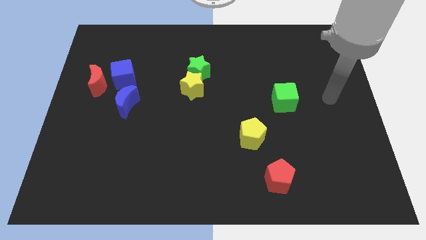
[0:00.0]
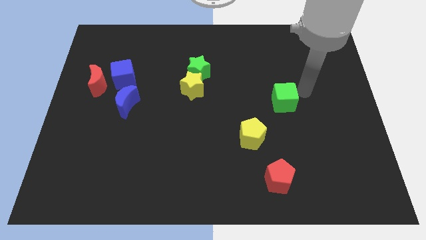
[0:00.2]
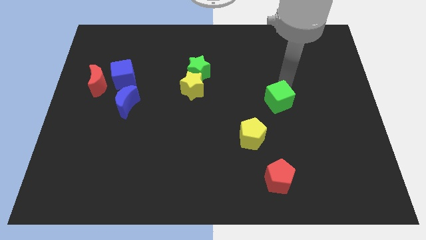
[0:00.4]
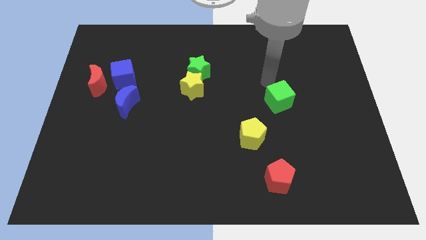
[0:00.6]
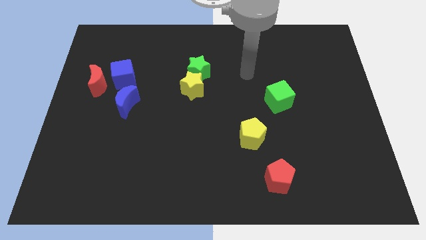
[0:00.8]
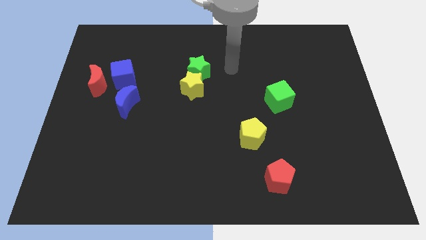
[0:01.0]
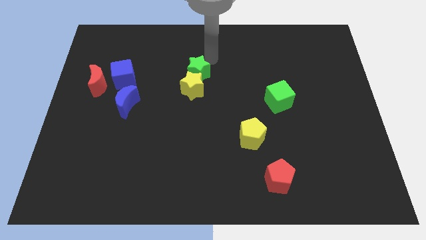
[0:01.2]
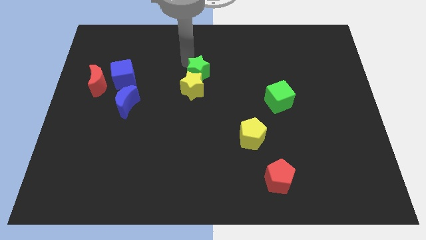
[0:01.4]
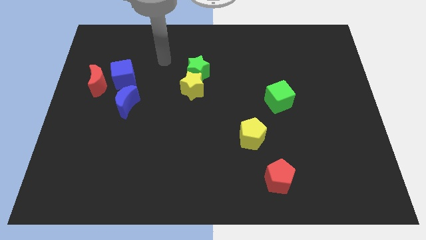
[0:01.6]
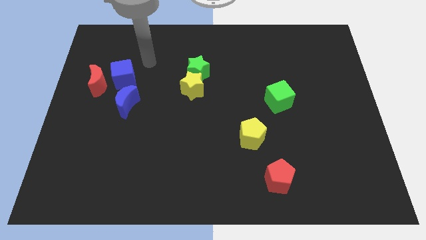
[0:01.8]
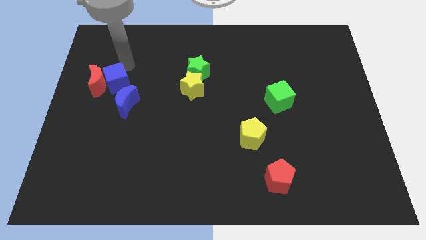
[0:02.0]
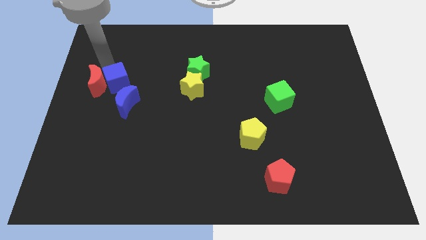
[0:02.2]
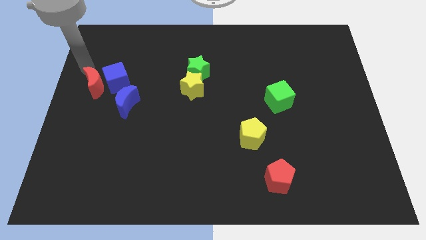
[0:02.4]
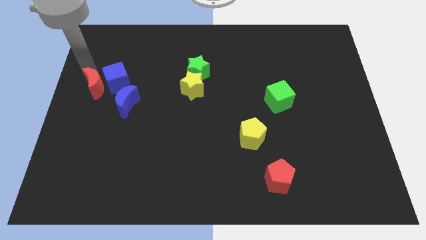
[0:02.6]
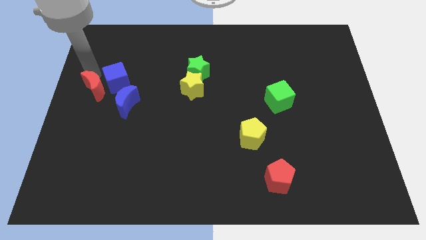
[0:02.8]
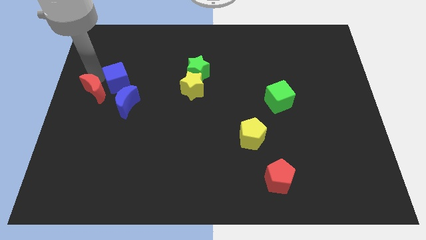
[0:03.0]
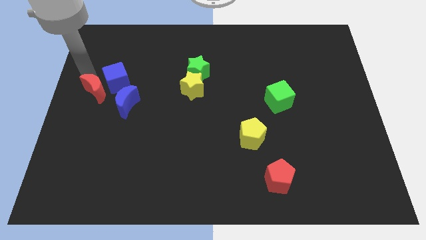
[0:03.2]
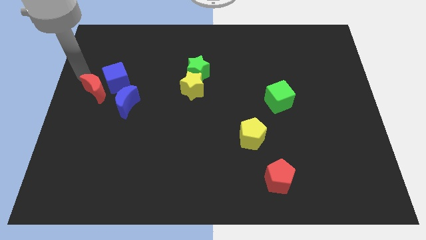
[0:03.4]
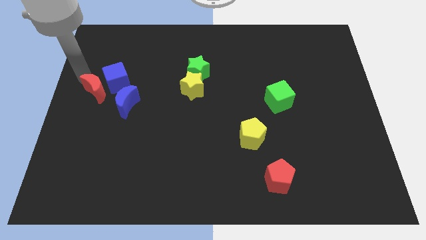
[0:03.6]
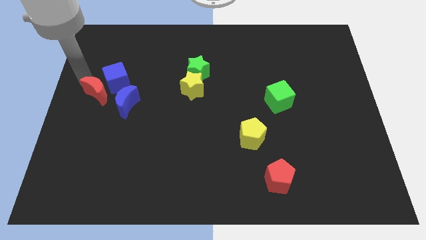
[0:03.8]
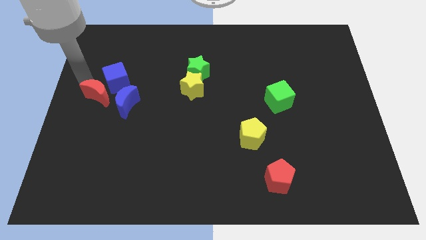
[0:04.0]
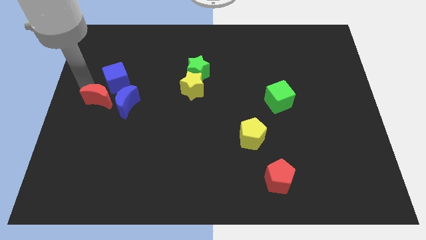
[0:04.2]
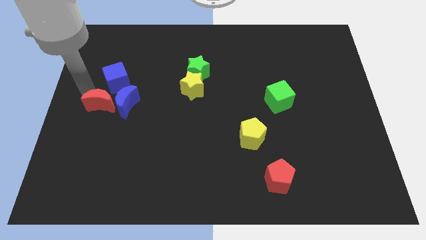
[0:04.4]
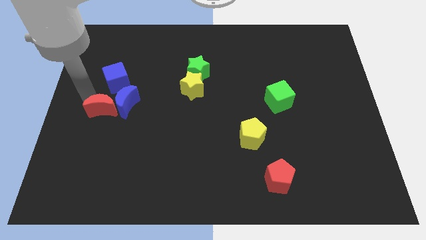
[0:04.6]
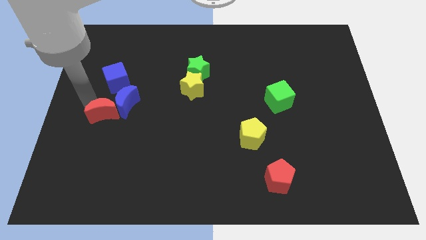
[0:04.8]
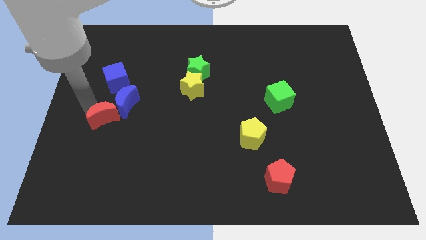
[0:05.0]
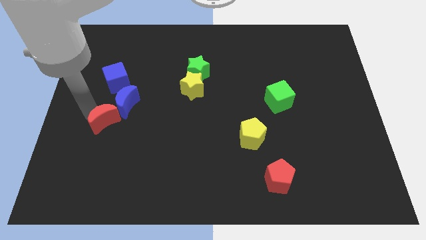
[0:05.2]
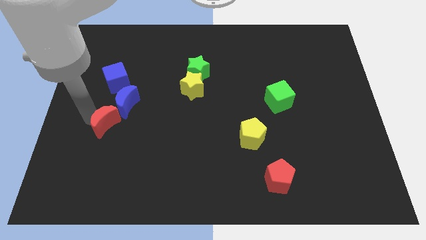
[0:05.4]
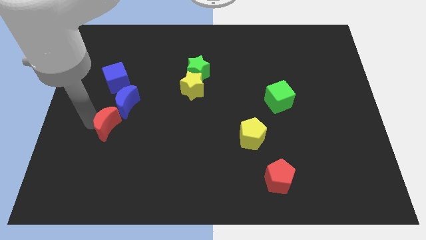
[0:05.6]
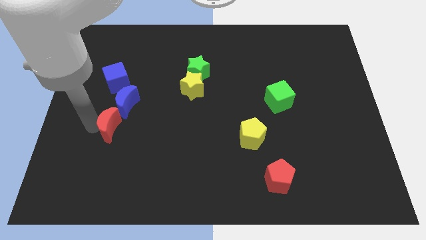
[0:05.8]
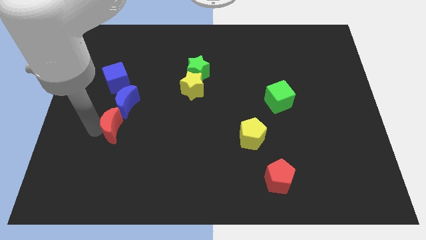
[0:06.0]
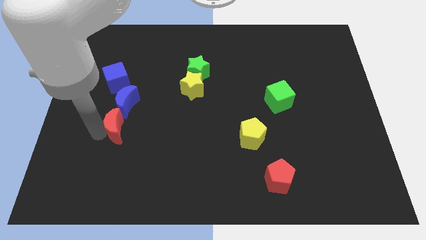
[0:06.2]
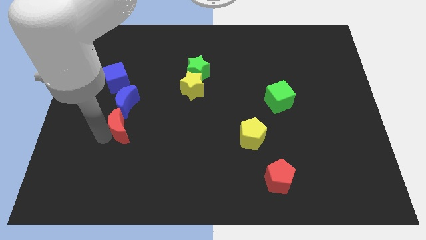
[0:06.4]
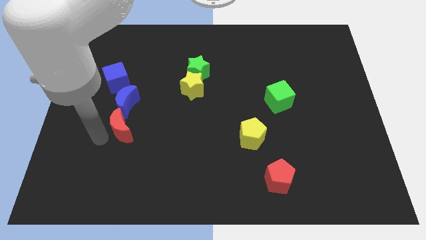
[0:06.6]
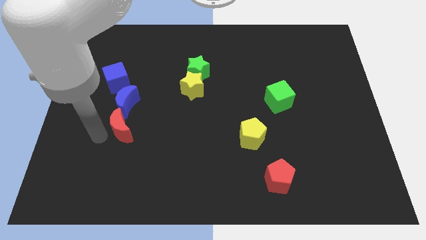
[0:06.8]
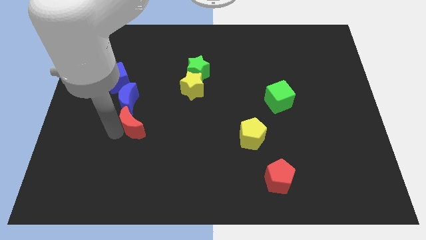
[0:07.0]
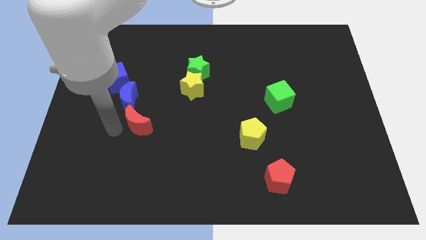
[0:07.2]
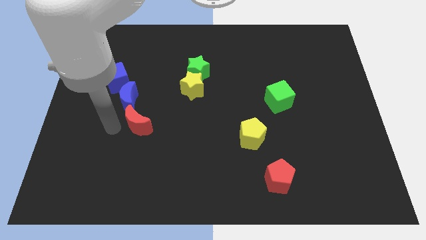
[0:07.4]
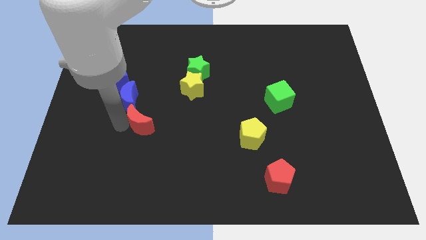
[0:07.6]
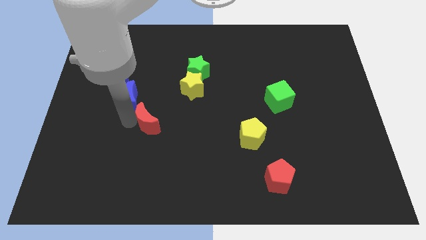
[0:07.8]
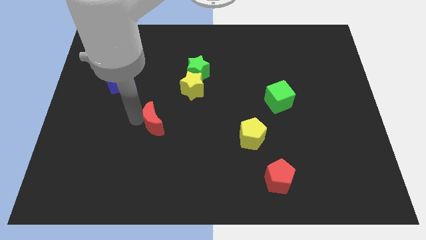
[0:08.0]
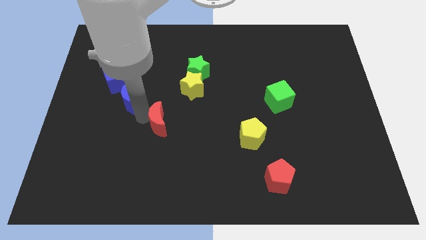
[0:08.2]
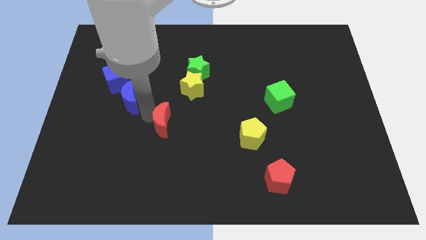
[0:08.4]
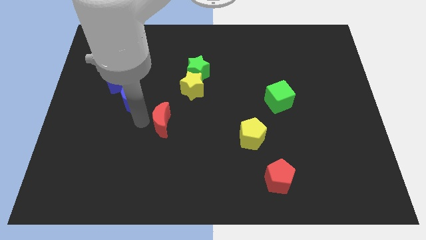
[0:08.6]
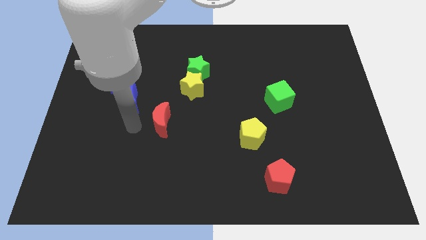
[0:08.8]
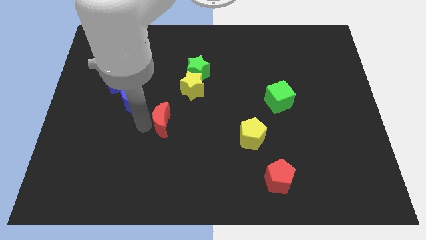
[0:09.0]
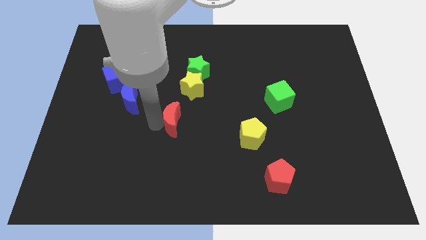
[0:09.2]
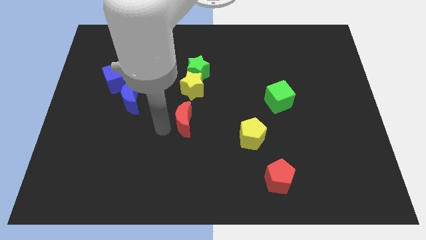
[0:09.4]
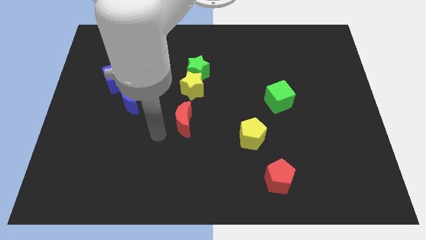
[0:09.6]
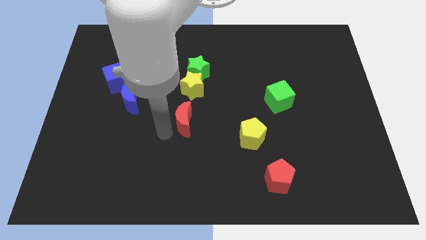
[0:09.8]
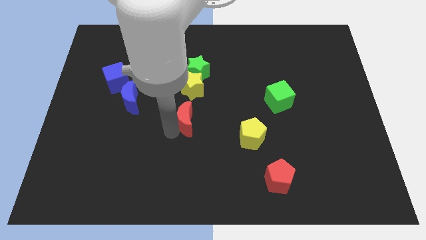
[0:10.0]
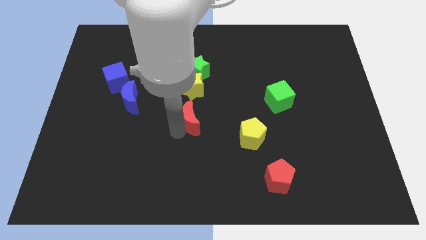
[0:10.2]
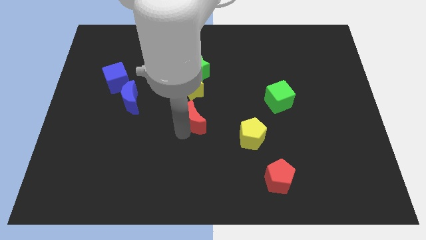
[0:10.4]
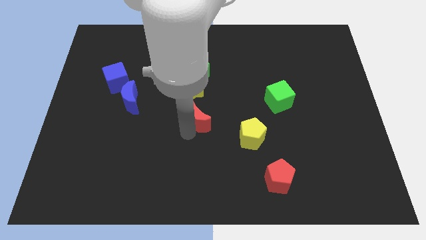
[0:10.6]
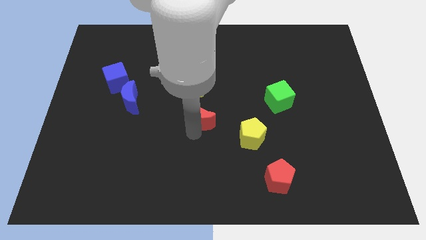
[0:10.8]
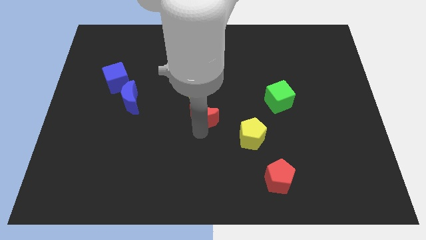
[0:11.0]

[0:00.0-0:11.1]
push the red moon to the right

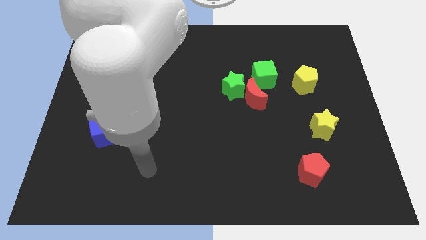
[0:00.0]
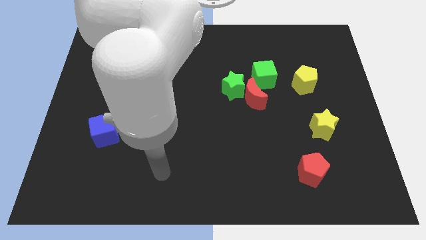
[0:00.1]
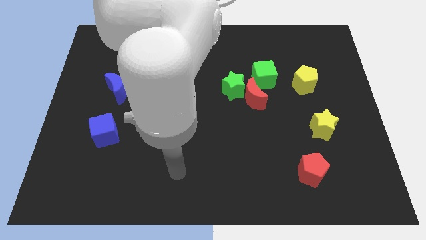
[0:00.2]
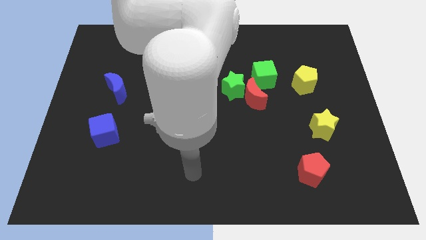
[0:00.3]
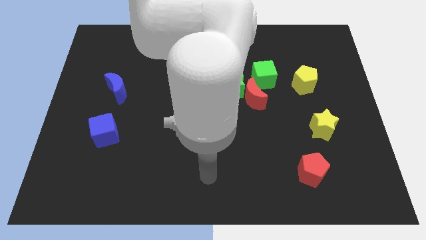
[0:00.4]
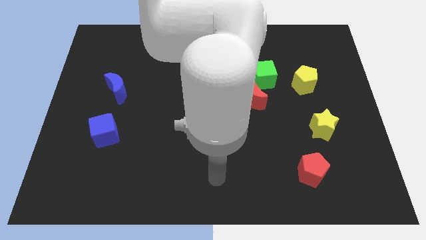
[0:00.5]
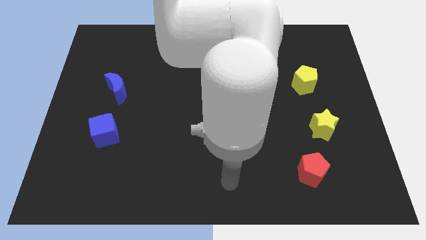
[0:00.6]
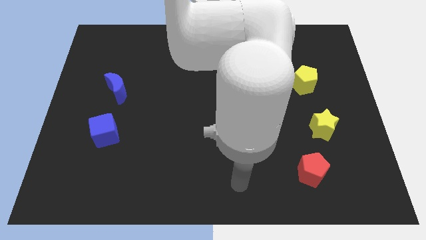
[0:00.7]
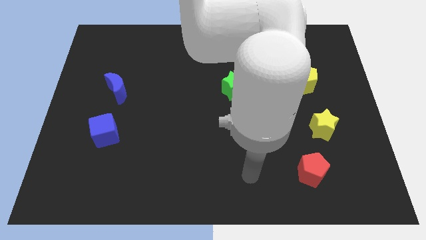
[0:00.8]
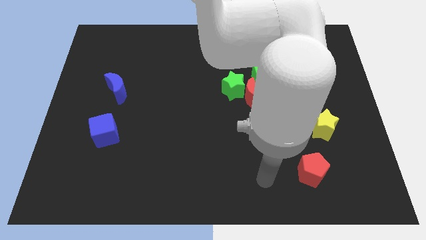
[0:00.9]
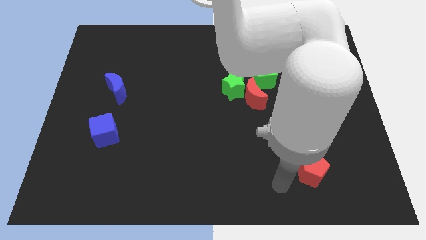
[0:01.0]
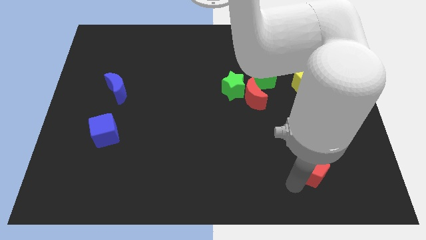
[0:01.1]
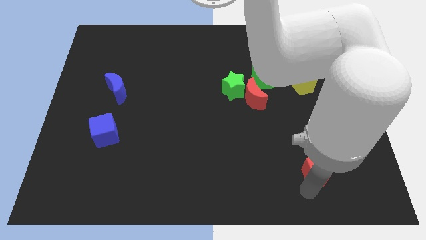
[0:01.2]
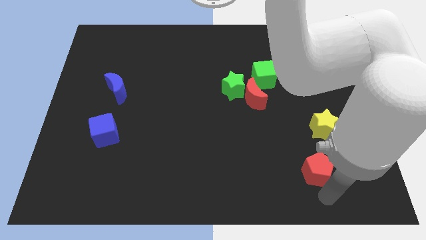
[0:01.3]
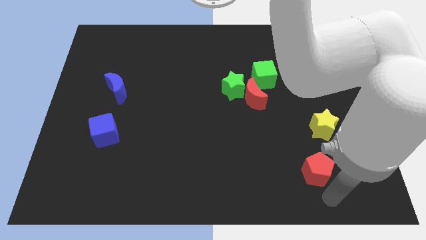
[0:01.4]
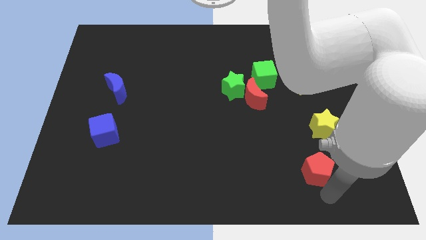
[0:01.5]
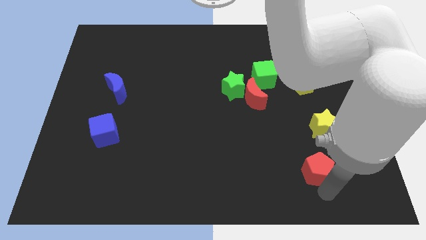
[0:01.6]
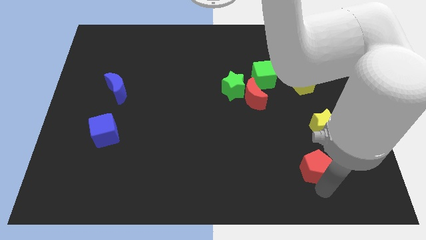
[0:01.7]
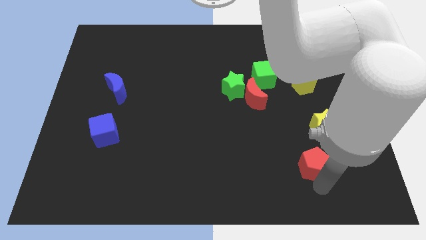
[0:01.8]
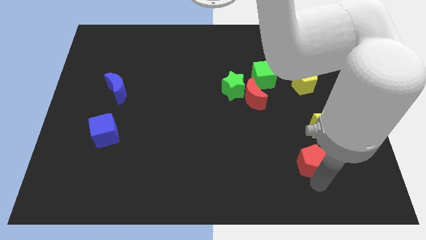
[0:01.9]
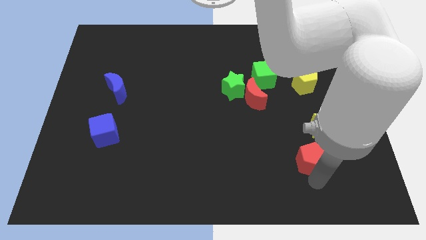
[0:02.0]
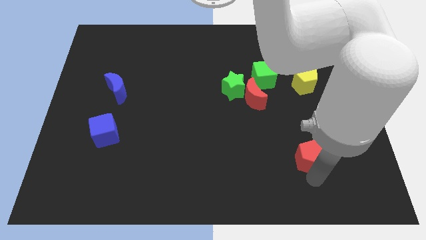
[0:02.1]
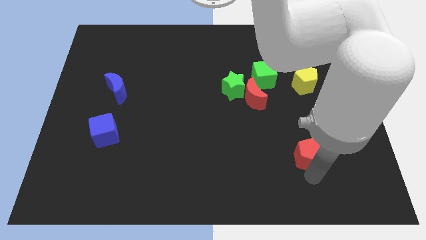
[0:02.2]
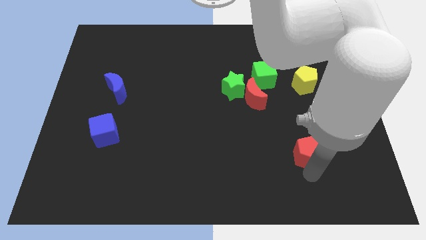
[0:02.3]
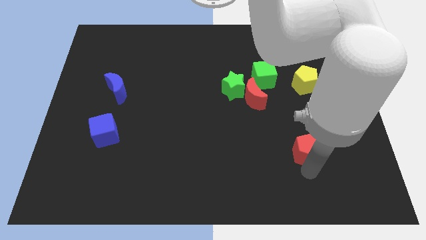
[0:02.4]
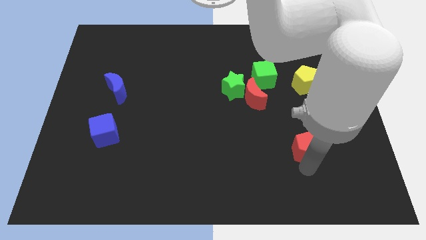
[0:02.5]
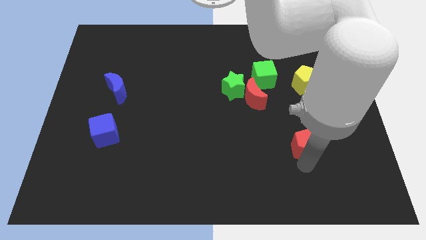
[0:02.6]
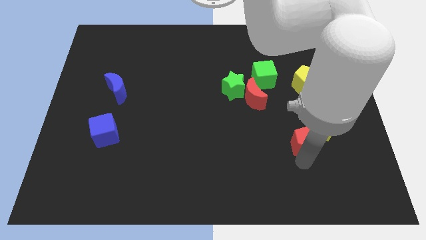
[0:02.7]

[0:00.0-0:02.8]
move the red pentagon a little bit upwards
